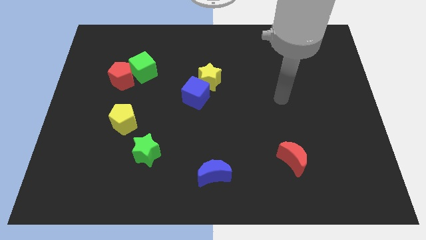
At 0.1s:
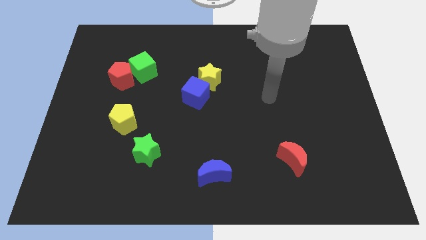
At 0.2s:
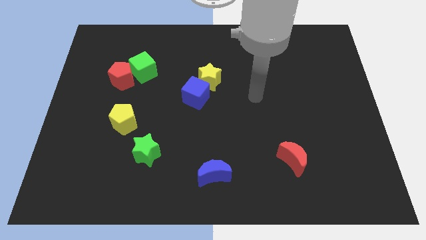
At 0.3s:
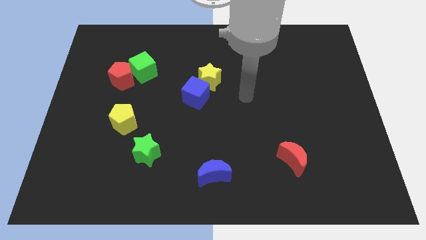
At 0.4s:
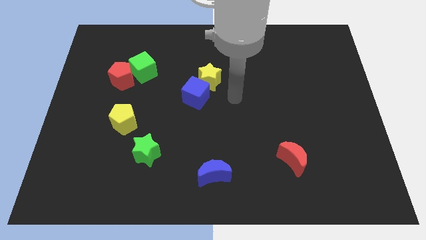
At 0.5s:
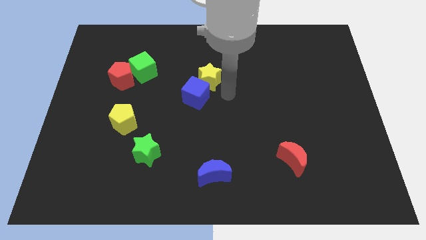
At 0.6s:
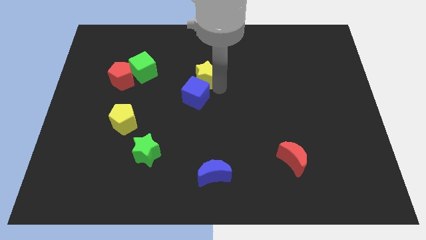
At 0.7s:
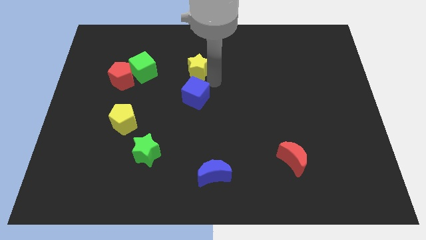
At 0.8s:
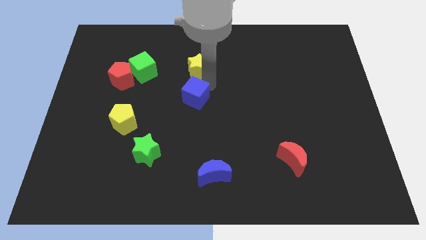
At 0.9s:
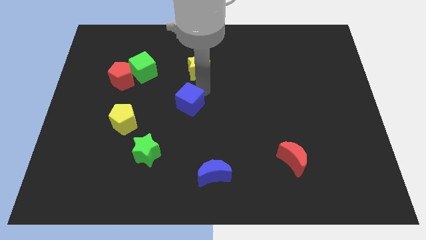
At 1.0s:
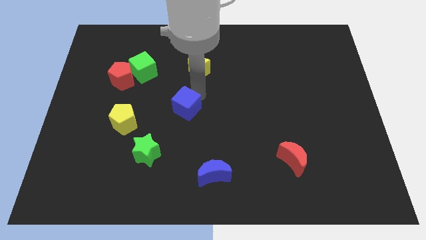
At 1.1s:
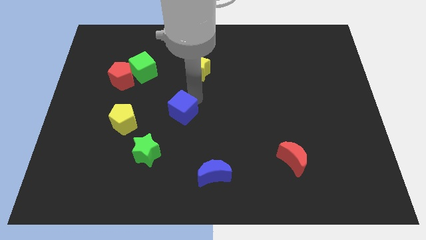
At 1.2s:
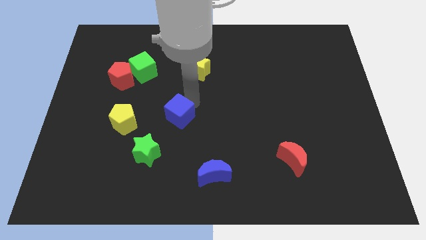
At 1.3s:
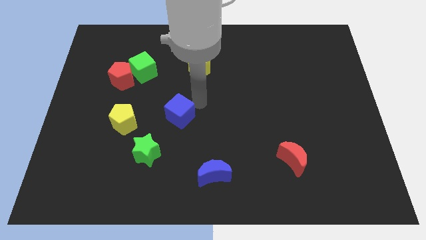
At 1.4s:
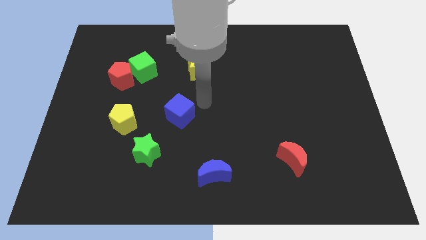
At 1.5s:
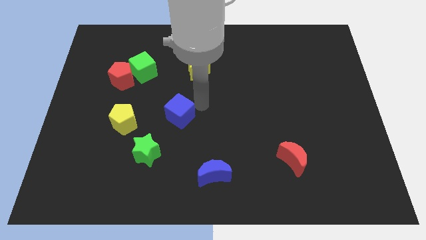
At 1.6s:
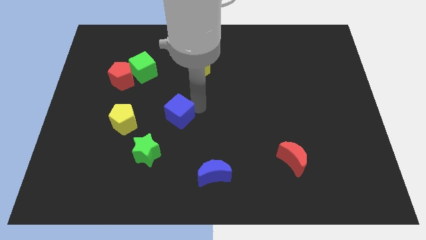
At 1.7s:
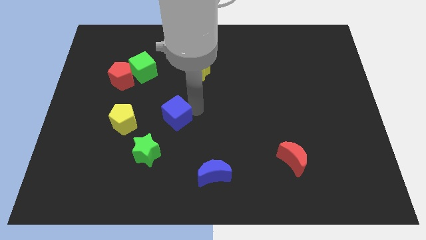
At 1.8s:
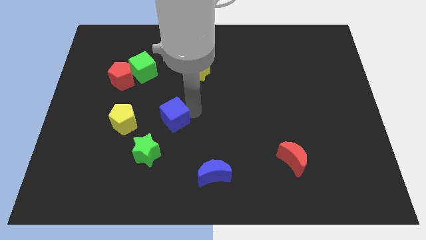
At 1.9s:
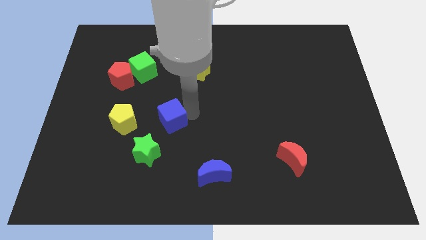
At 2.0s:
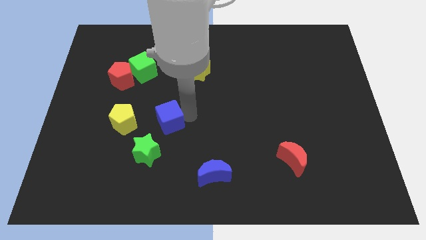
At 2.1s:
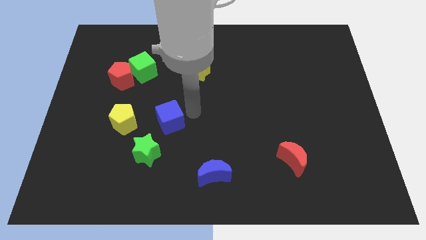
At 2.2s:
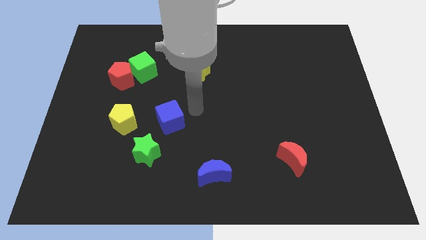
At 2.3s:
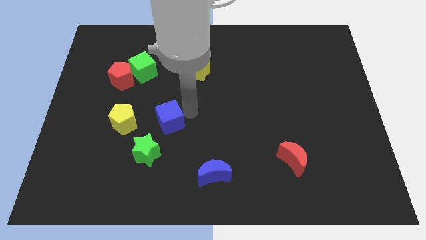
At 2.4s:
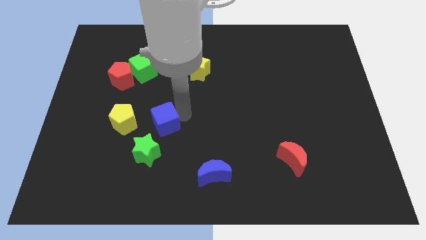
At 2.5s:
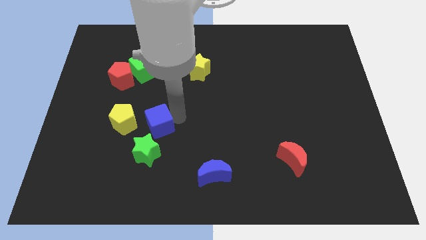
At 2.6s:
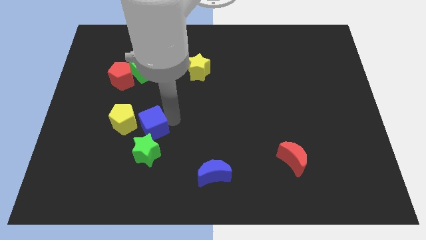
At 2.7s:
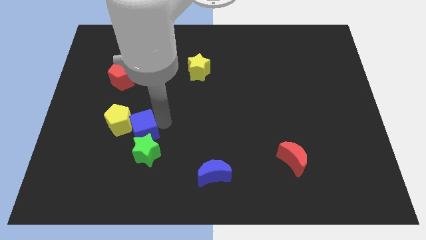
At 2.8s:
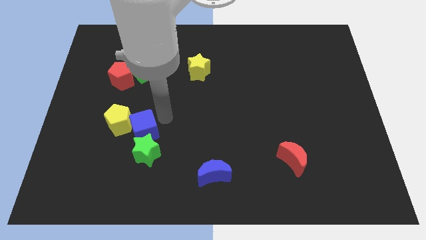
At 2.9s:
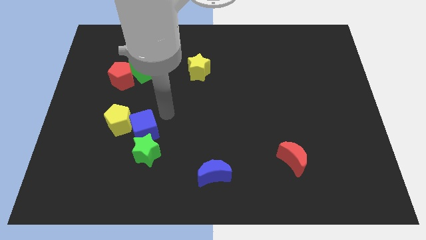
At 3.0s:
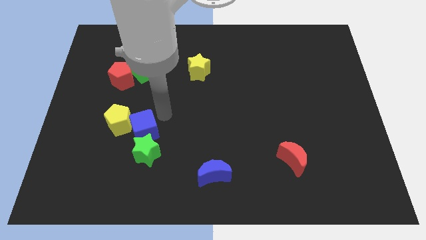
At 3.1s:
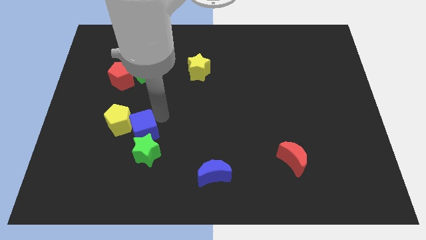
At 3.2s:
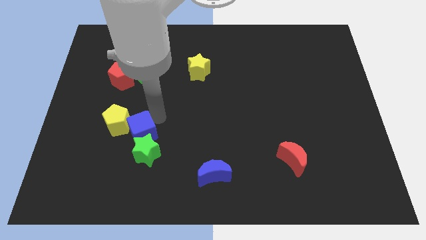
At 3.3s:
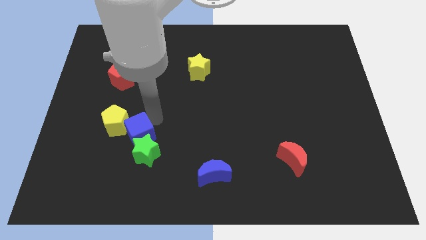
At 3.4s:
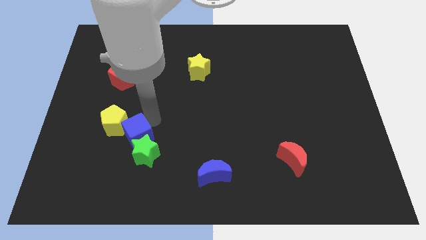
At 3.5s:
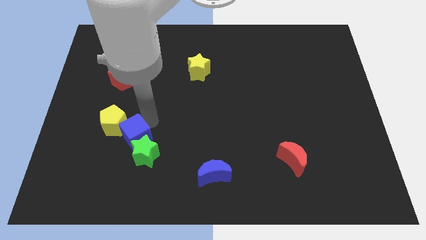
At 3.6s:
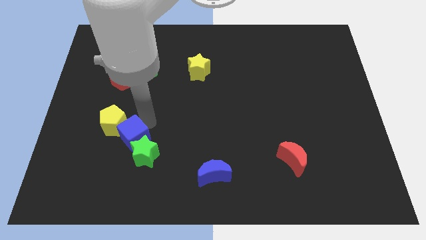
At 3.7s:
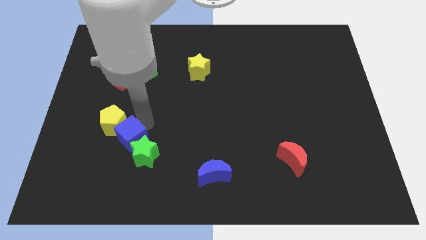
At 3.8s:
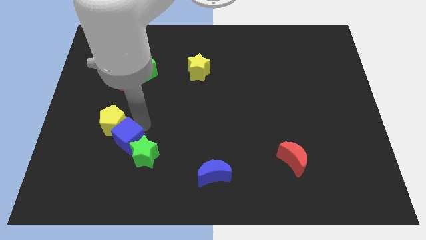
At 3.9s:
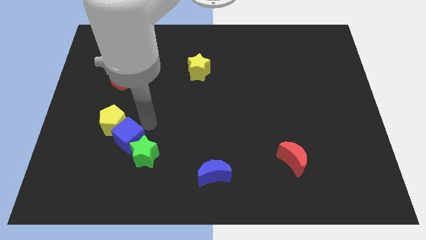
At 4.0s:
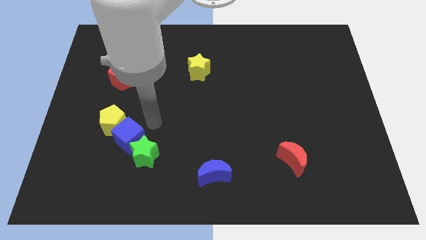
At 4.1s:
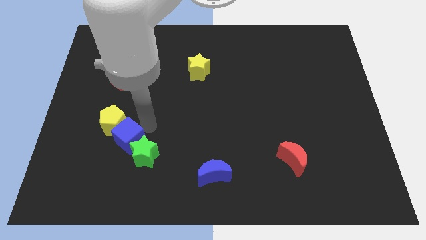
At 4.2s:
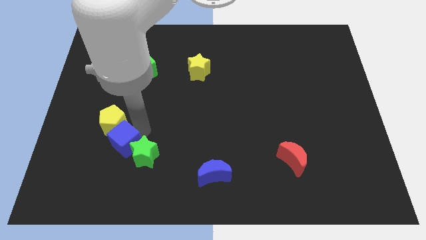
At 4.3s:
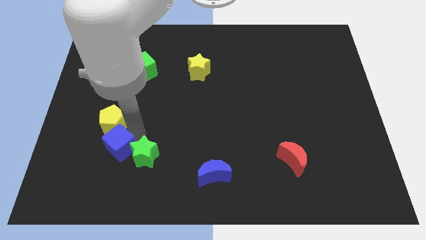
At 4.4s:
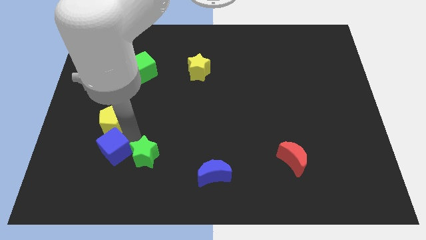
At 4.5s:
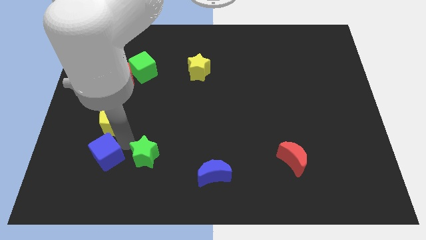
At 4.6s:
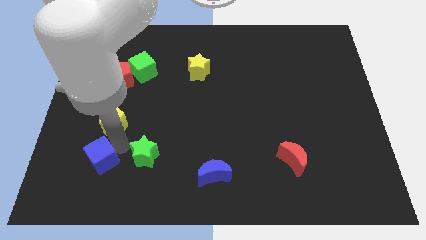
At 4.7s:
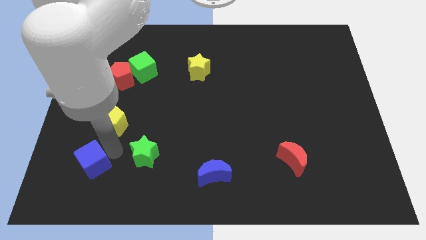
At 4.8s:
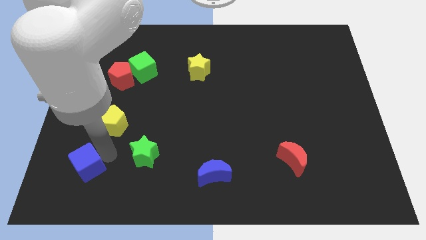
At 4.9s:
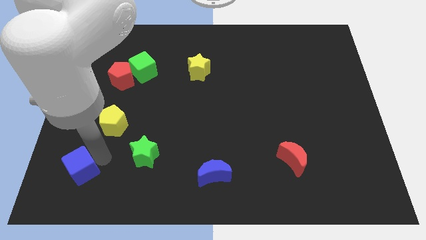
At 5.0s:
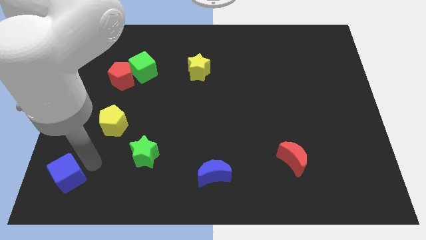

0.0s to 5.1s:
push the blue cube to the lower left corner

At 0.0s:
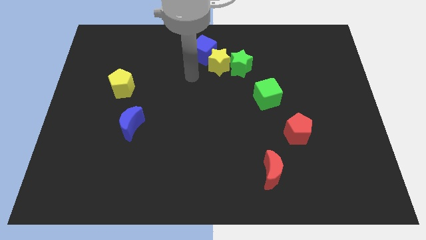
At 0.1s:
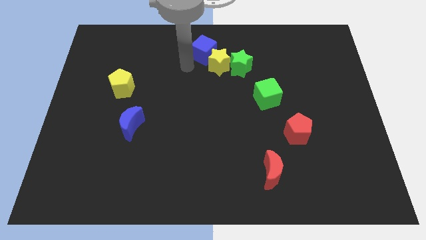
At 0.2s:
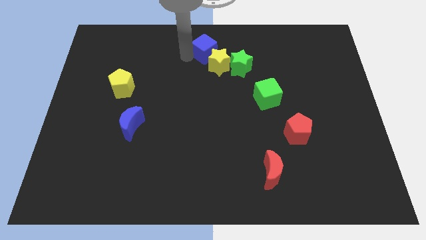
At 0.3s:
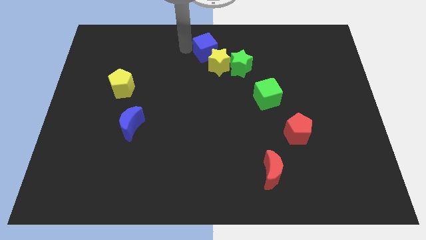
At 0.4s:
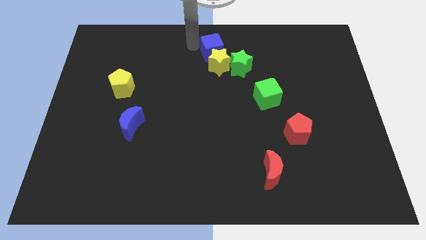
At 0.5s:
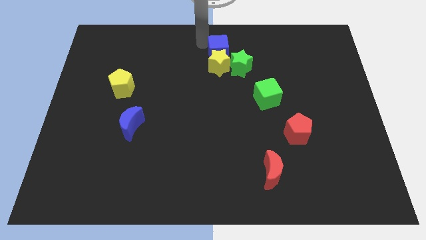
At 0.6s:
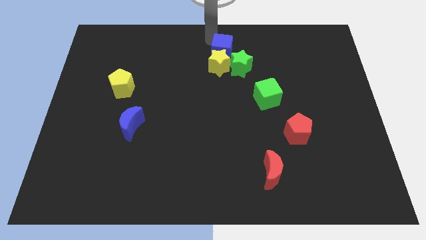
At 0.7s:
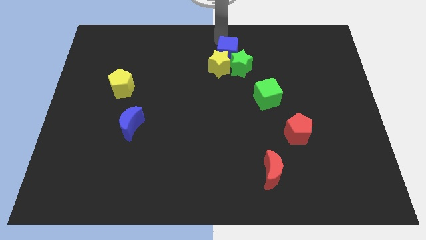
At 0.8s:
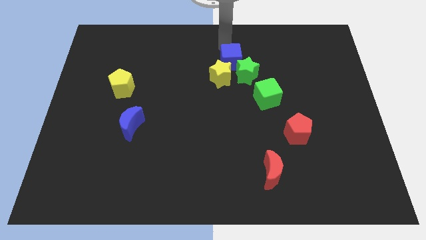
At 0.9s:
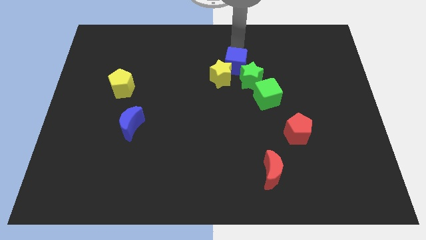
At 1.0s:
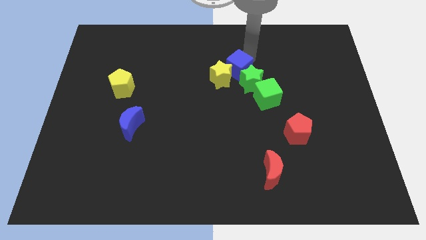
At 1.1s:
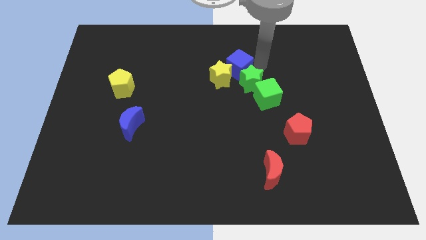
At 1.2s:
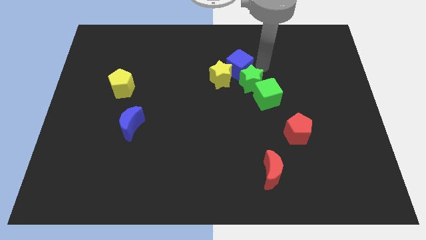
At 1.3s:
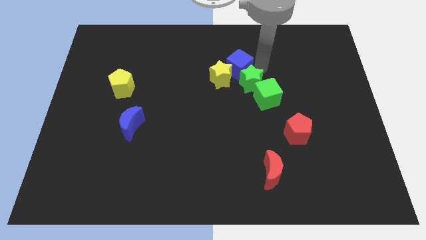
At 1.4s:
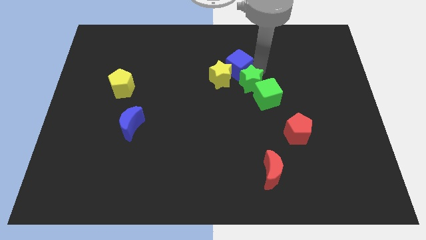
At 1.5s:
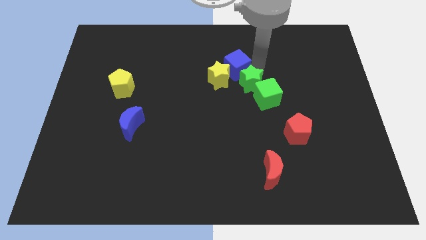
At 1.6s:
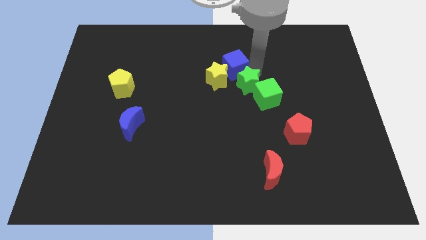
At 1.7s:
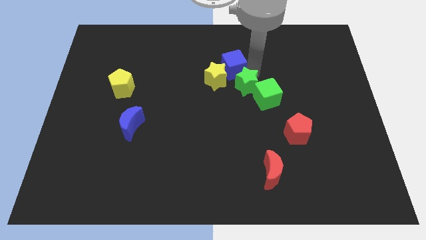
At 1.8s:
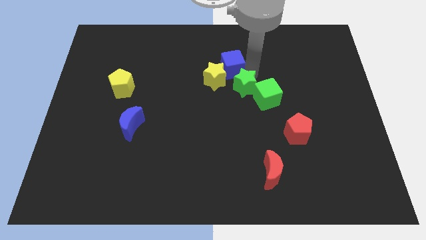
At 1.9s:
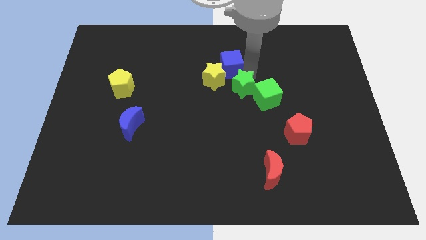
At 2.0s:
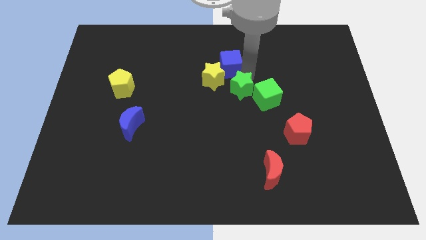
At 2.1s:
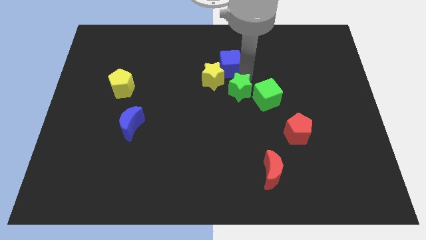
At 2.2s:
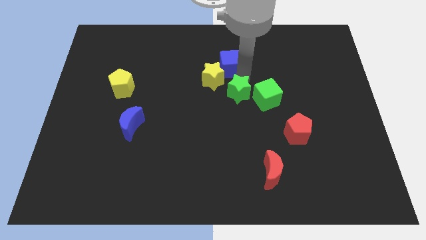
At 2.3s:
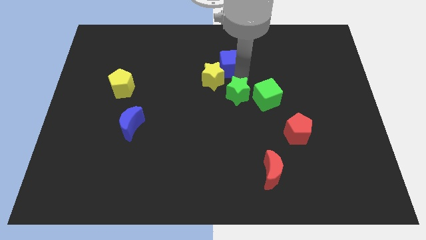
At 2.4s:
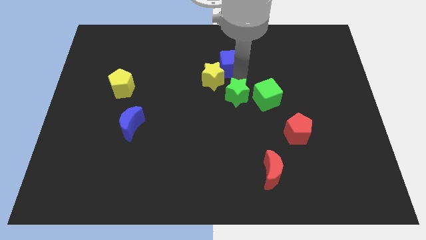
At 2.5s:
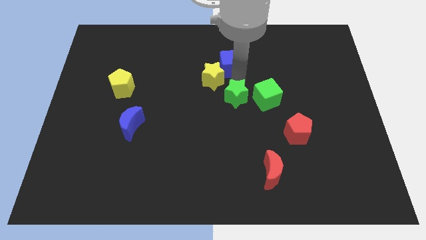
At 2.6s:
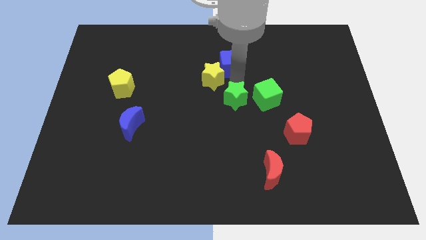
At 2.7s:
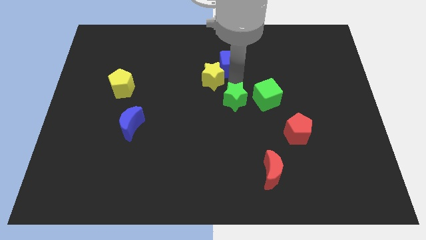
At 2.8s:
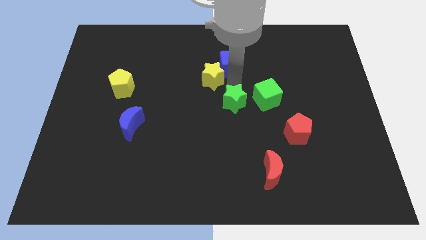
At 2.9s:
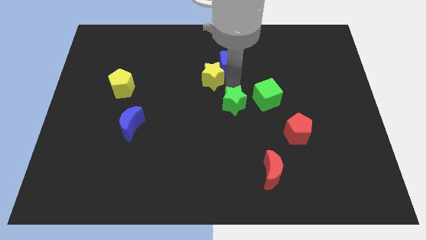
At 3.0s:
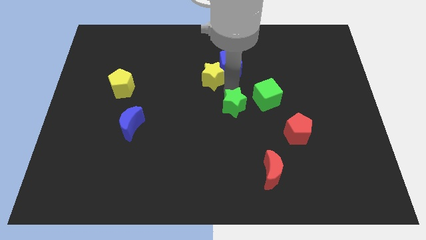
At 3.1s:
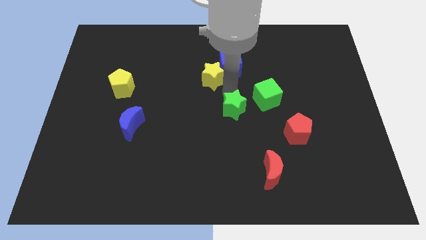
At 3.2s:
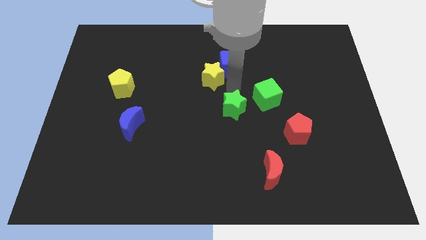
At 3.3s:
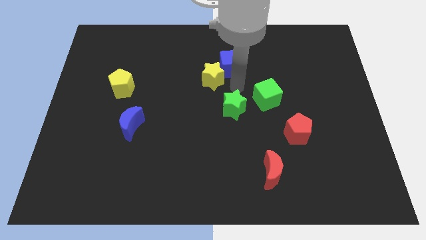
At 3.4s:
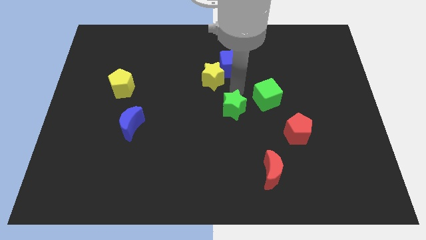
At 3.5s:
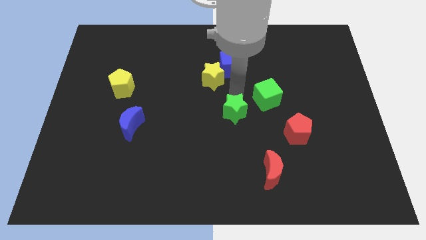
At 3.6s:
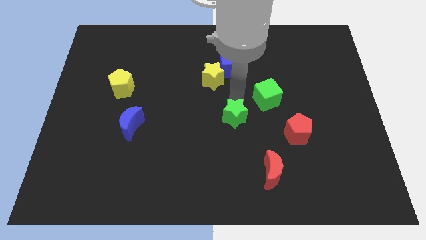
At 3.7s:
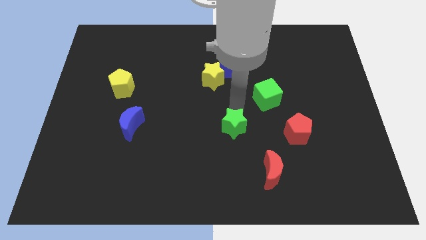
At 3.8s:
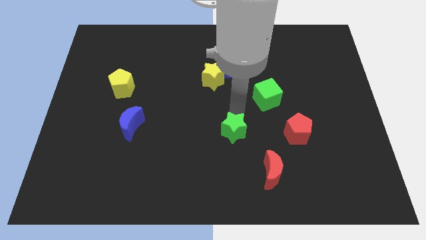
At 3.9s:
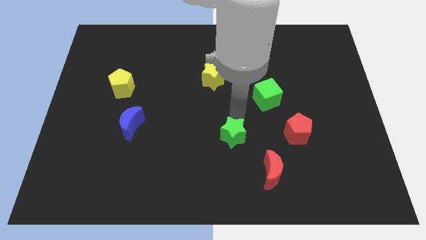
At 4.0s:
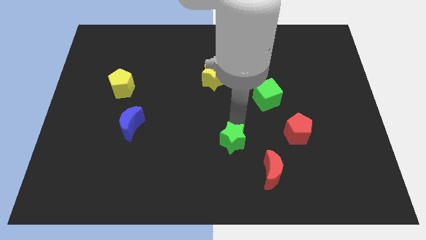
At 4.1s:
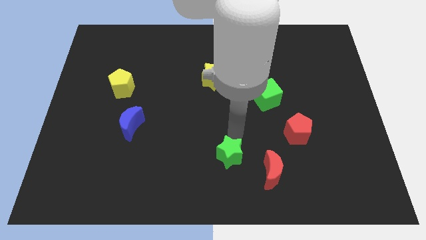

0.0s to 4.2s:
move the green star to the bottom
